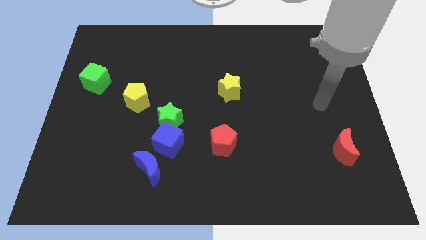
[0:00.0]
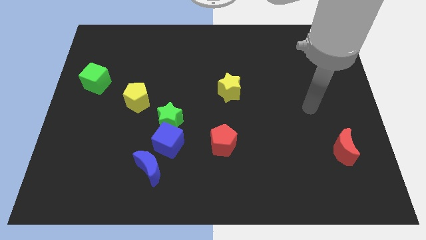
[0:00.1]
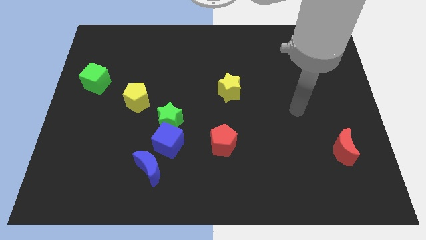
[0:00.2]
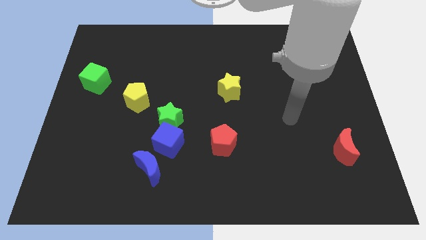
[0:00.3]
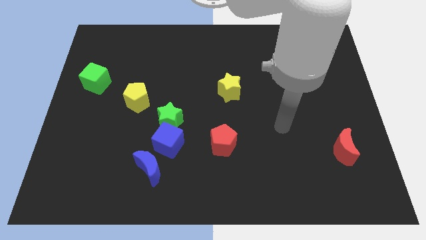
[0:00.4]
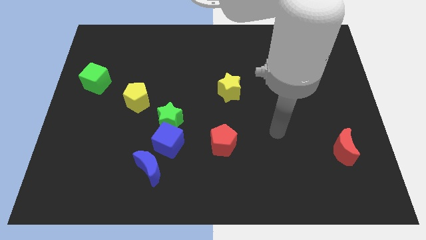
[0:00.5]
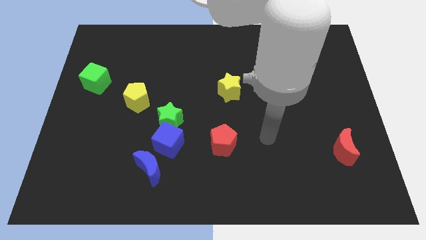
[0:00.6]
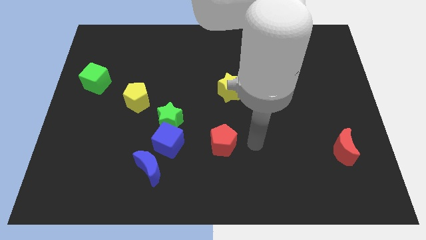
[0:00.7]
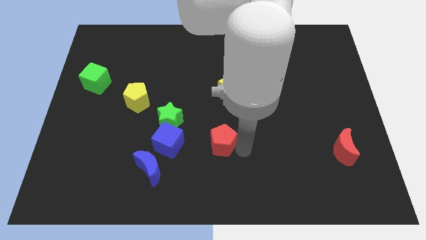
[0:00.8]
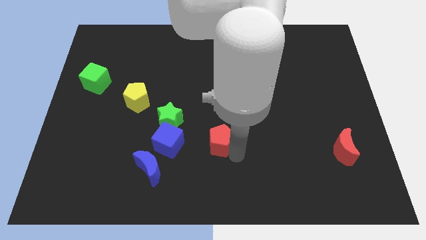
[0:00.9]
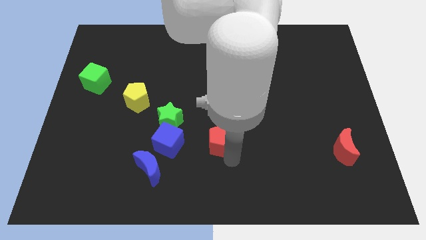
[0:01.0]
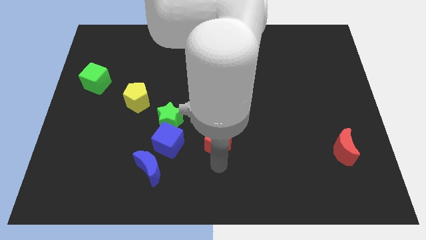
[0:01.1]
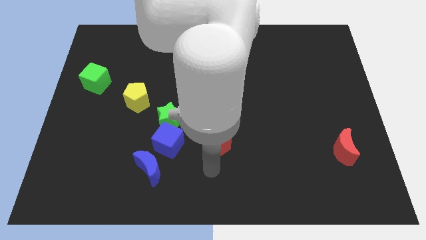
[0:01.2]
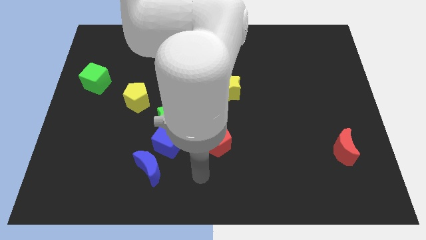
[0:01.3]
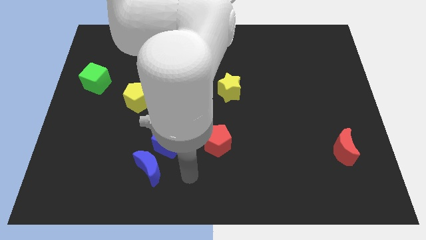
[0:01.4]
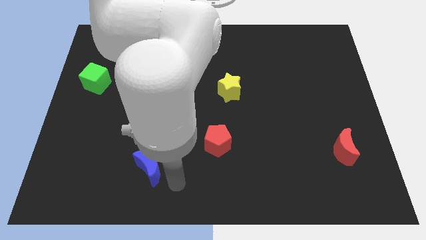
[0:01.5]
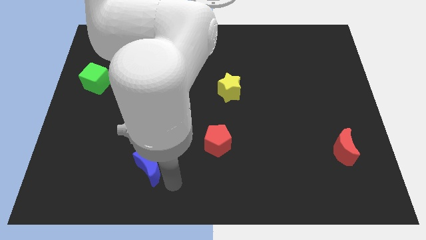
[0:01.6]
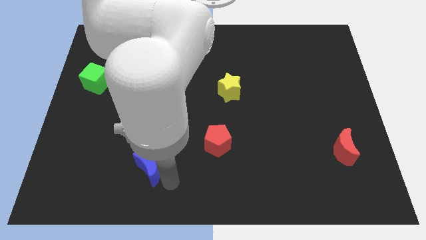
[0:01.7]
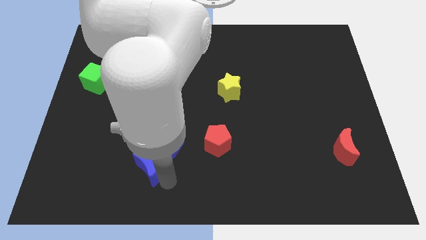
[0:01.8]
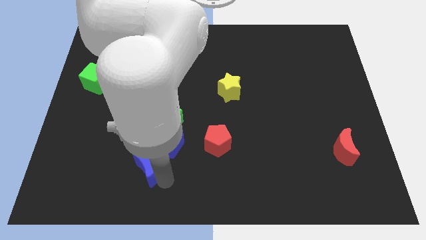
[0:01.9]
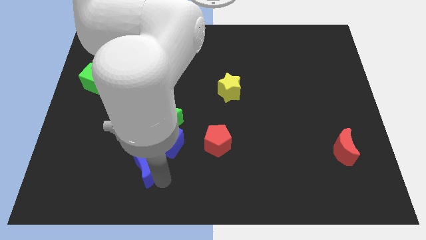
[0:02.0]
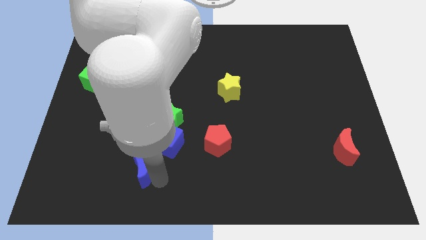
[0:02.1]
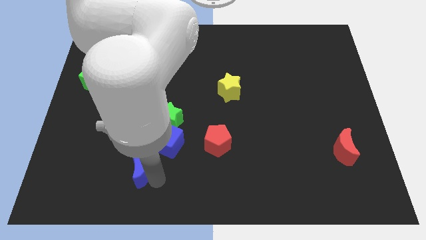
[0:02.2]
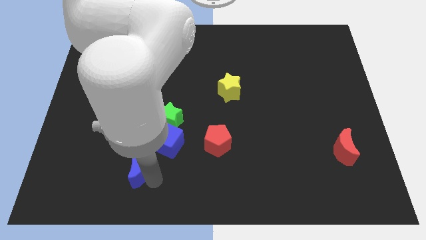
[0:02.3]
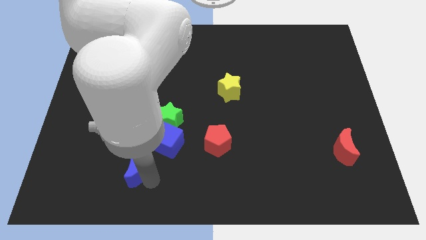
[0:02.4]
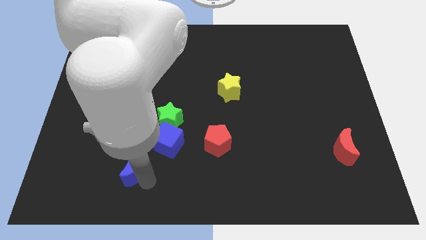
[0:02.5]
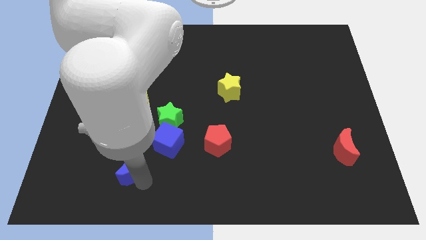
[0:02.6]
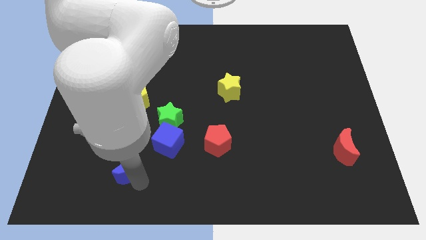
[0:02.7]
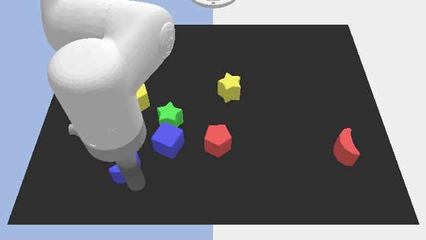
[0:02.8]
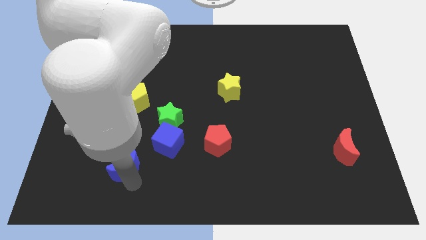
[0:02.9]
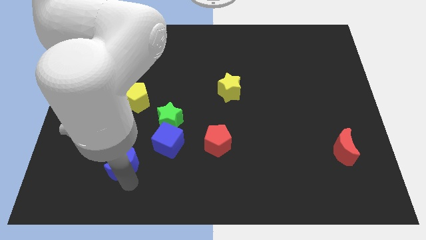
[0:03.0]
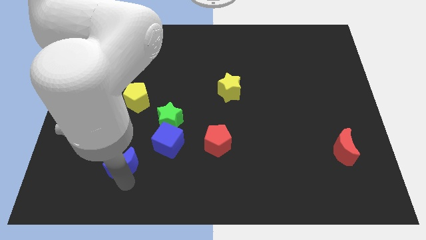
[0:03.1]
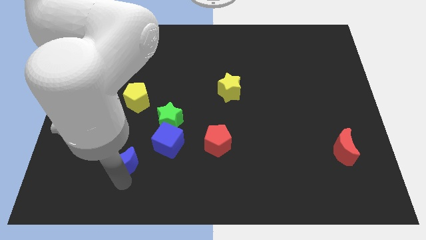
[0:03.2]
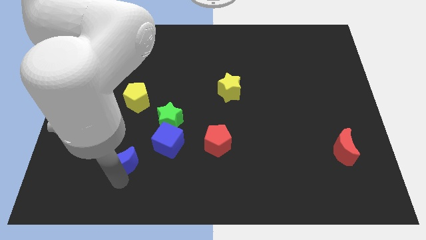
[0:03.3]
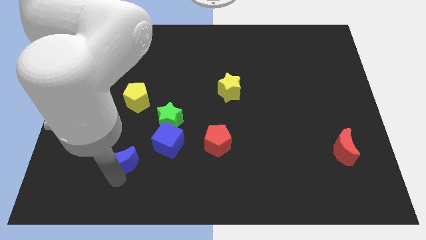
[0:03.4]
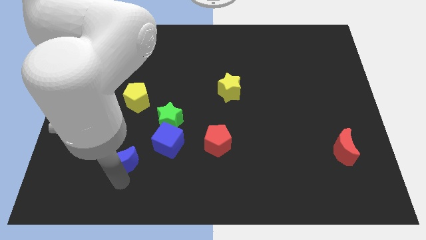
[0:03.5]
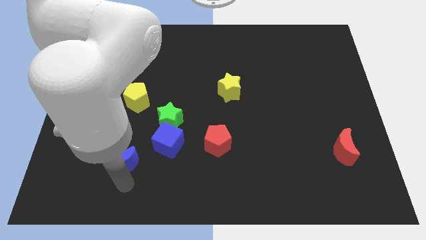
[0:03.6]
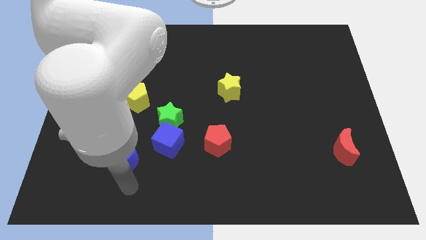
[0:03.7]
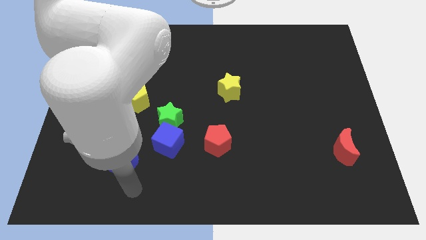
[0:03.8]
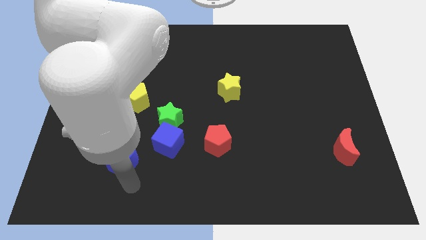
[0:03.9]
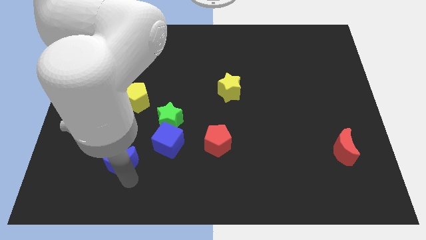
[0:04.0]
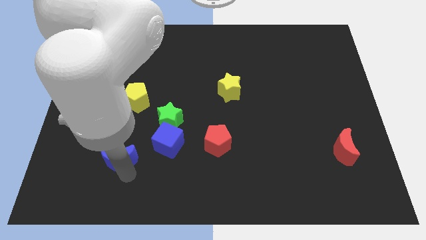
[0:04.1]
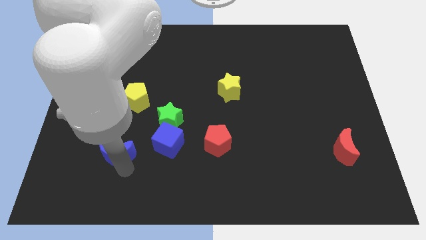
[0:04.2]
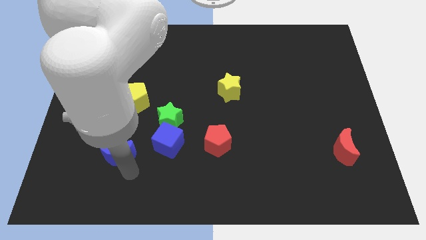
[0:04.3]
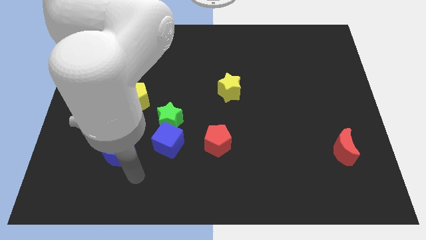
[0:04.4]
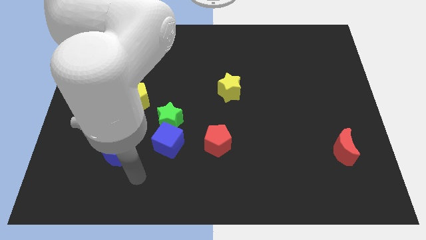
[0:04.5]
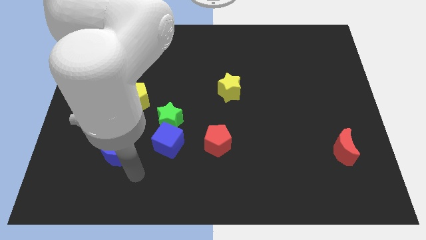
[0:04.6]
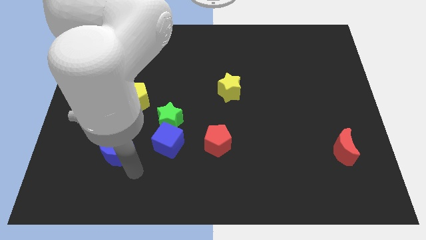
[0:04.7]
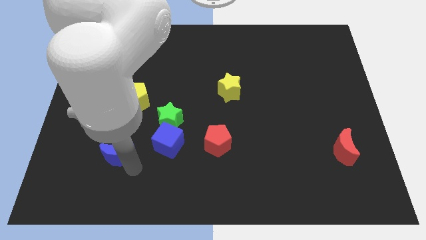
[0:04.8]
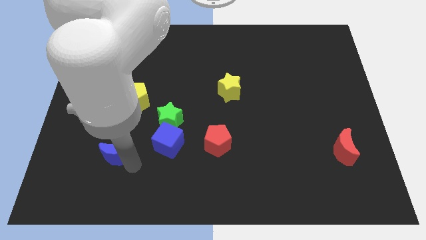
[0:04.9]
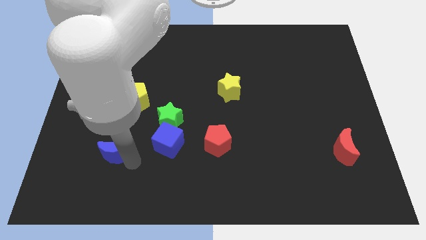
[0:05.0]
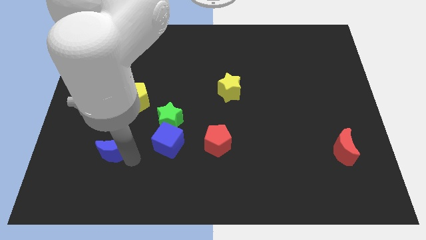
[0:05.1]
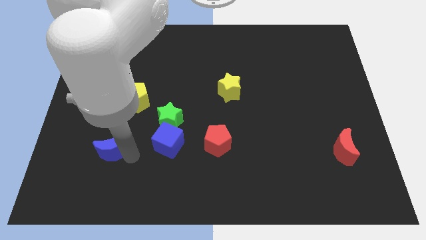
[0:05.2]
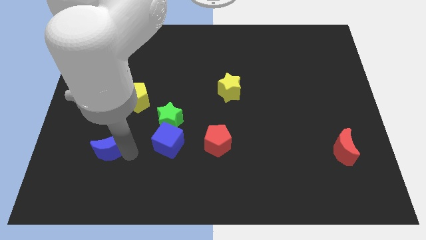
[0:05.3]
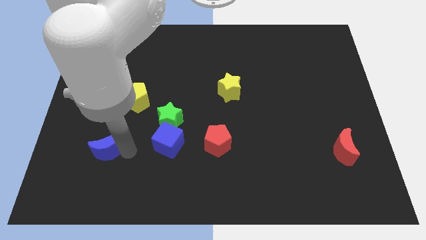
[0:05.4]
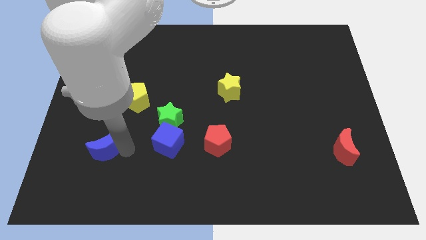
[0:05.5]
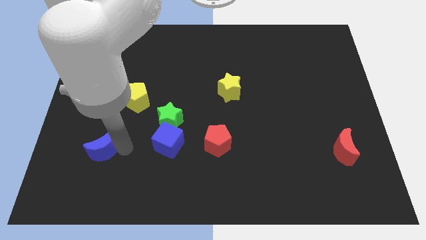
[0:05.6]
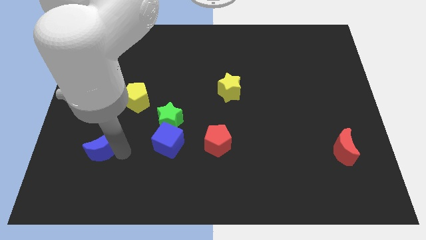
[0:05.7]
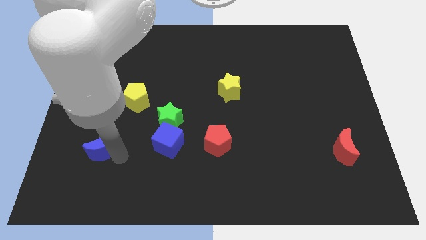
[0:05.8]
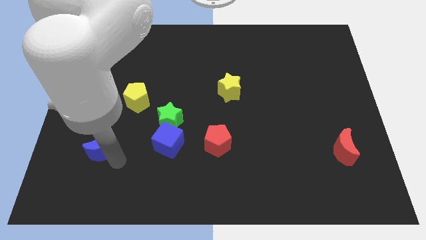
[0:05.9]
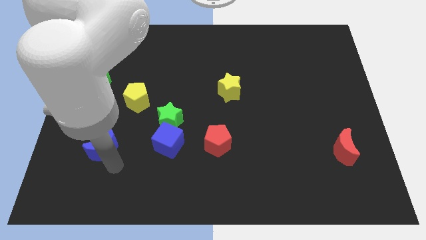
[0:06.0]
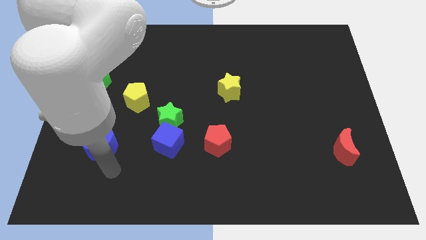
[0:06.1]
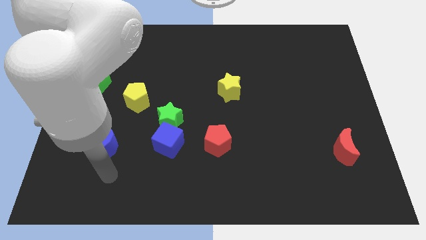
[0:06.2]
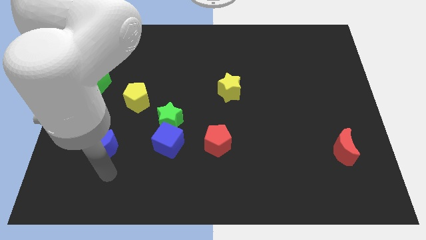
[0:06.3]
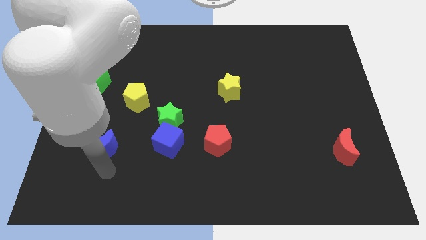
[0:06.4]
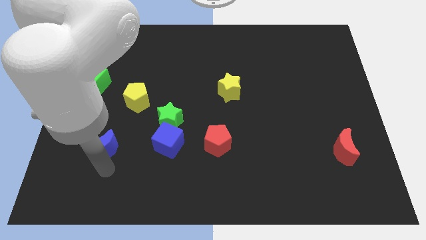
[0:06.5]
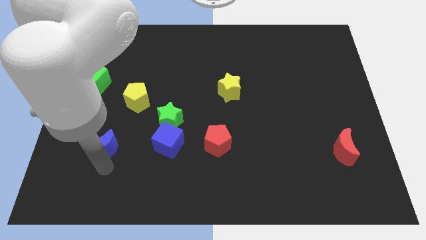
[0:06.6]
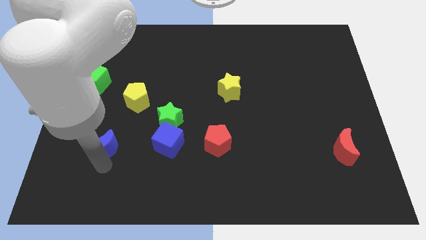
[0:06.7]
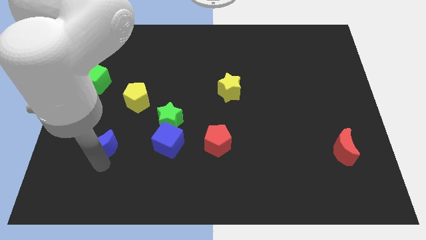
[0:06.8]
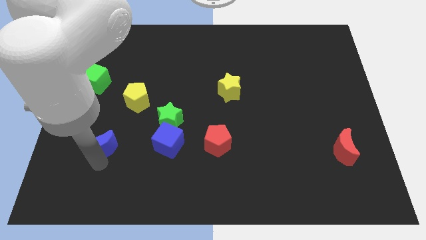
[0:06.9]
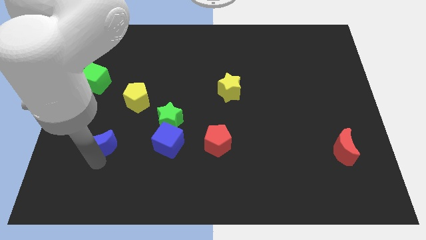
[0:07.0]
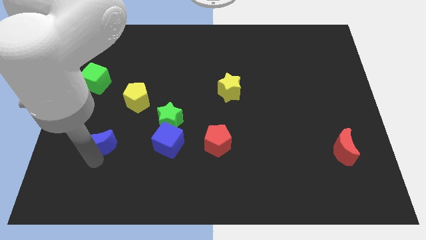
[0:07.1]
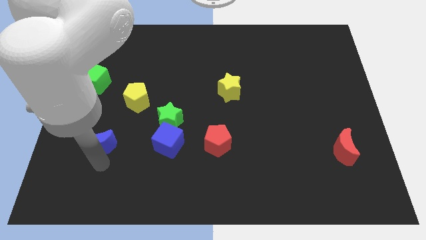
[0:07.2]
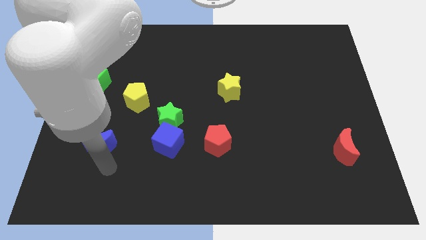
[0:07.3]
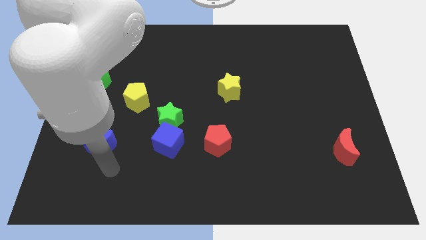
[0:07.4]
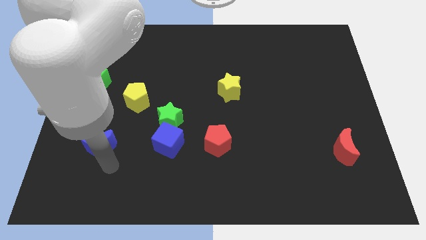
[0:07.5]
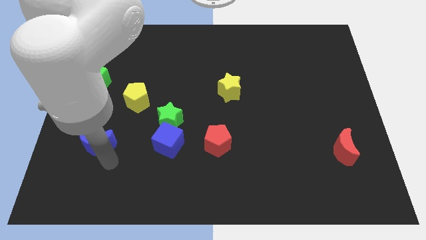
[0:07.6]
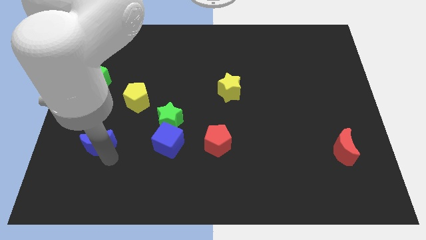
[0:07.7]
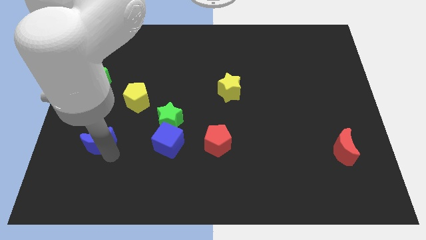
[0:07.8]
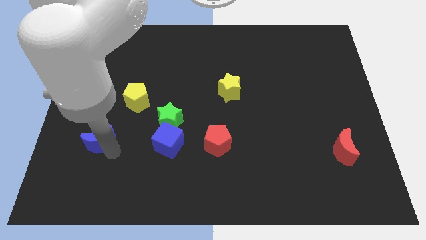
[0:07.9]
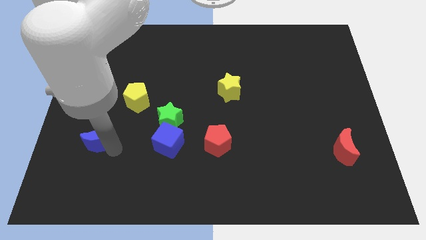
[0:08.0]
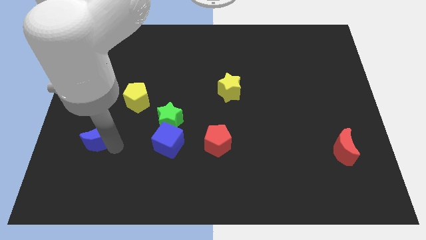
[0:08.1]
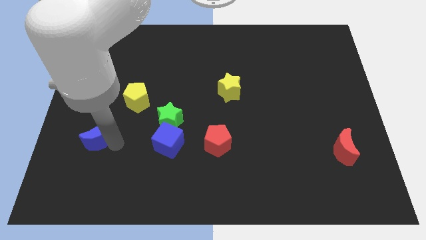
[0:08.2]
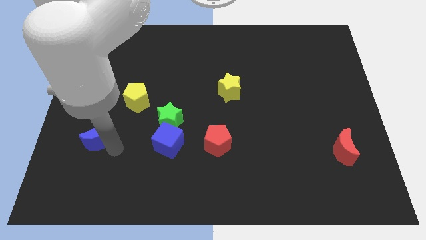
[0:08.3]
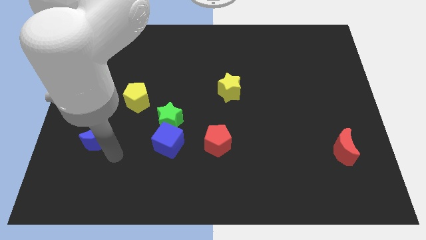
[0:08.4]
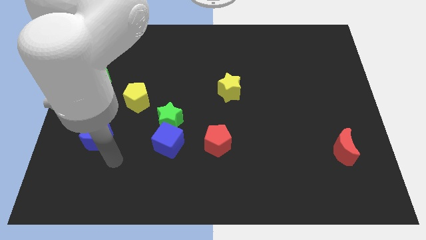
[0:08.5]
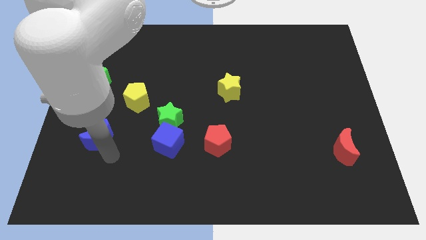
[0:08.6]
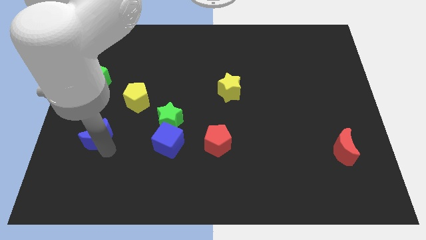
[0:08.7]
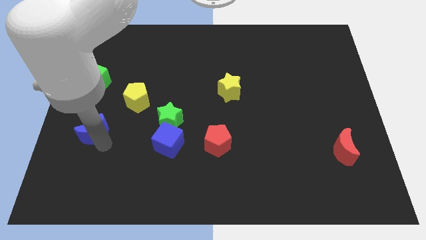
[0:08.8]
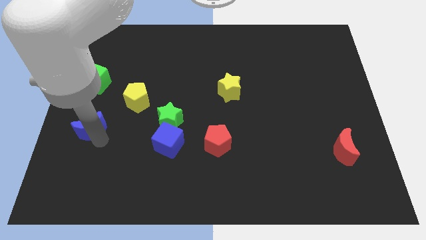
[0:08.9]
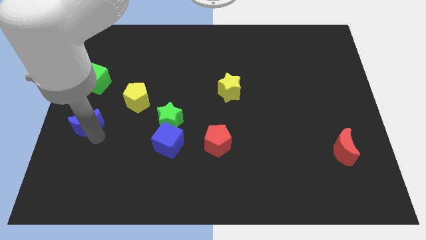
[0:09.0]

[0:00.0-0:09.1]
put the blue moon to the center left
